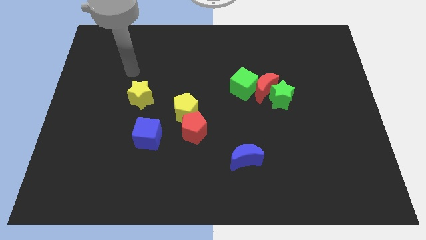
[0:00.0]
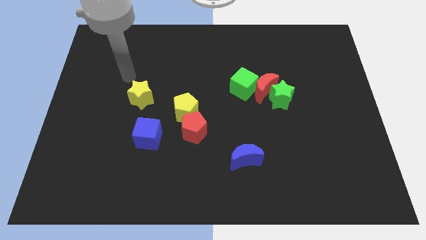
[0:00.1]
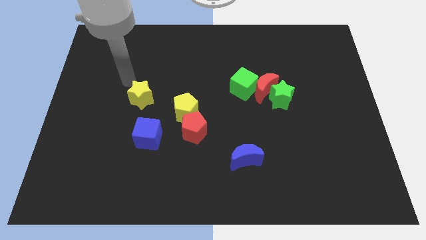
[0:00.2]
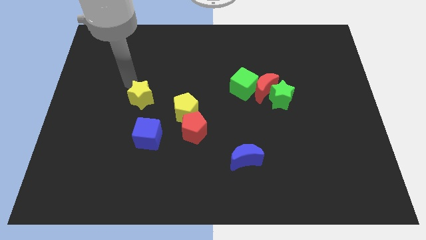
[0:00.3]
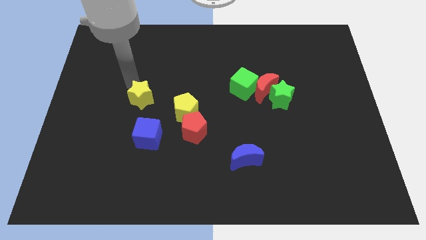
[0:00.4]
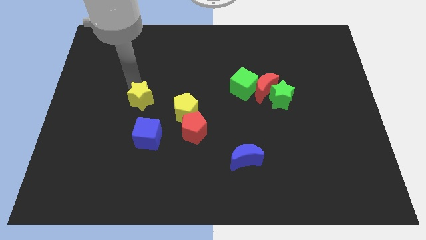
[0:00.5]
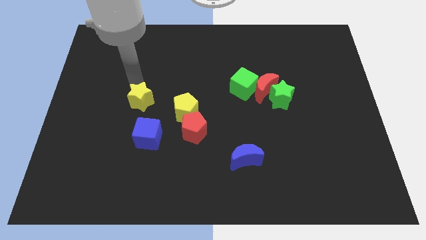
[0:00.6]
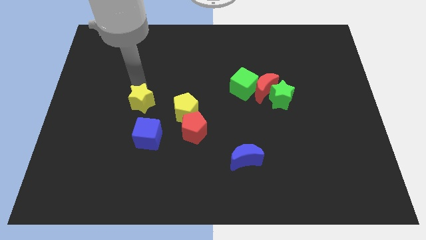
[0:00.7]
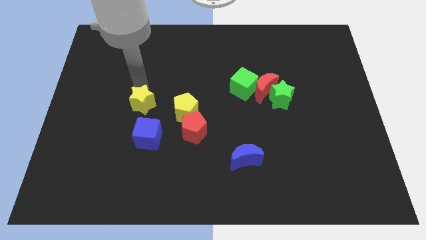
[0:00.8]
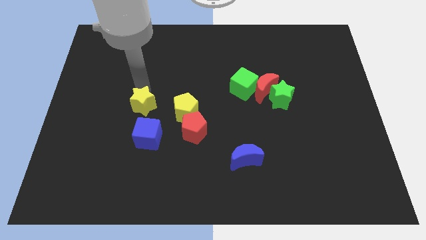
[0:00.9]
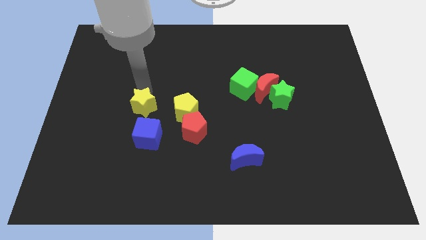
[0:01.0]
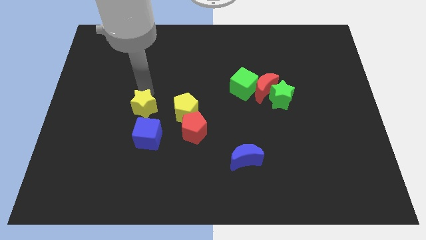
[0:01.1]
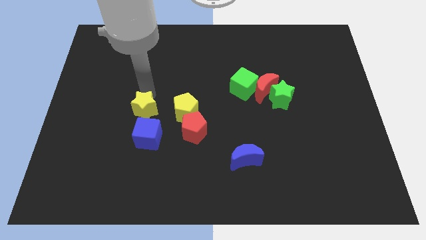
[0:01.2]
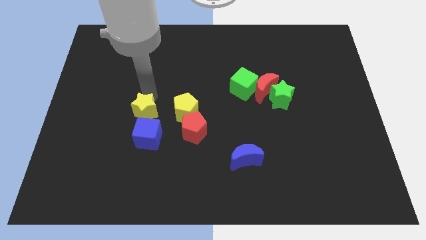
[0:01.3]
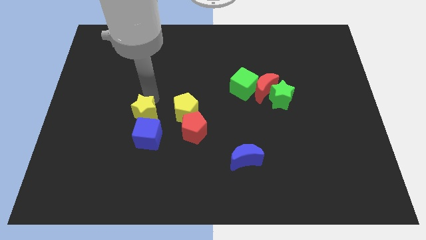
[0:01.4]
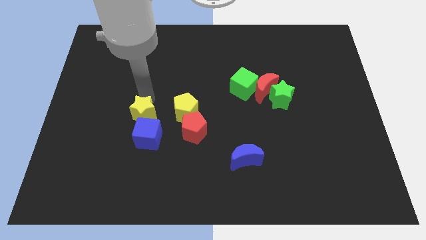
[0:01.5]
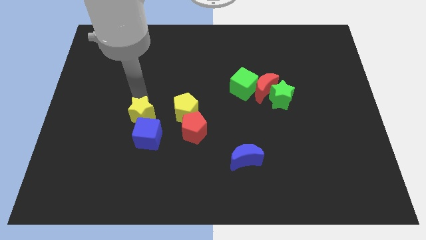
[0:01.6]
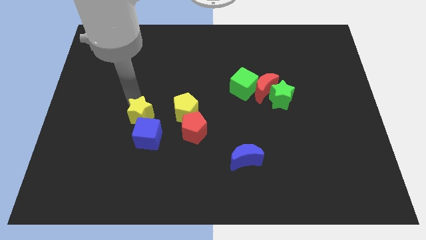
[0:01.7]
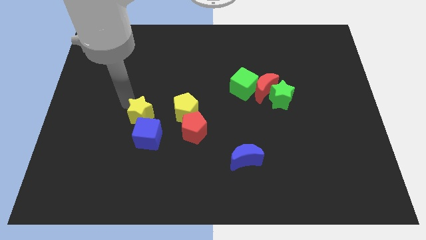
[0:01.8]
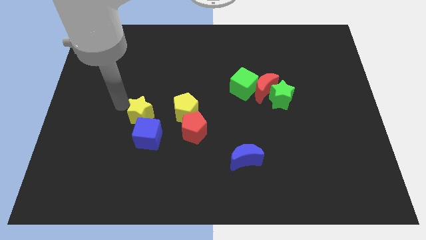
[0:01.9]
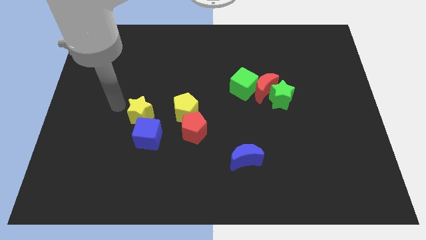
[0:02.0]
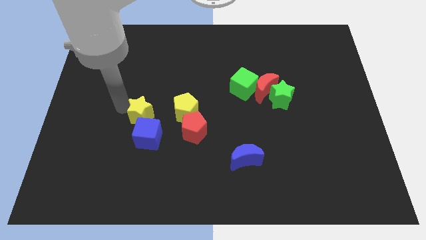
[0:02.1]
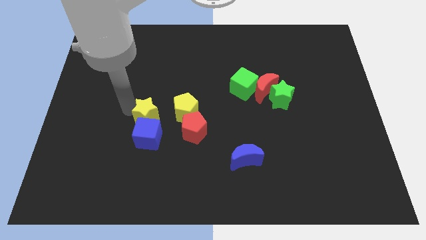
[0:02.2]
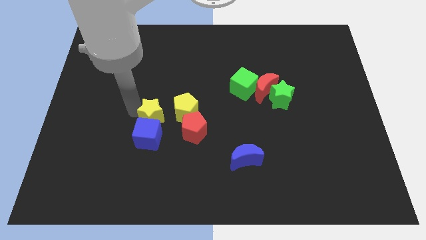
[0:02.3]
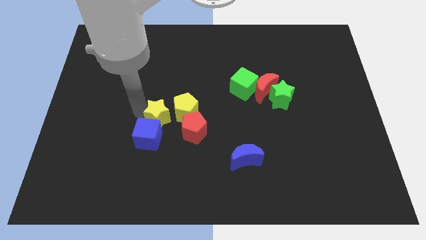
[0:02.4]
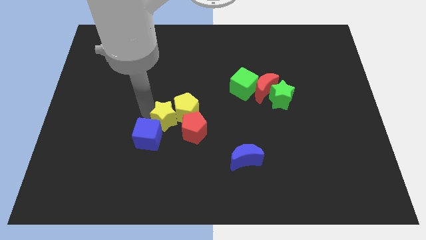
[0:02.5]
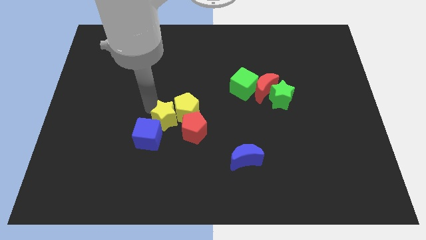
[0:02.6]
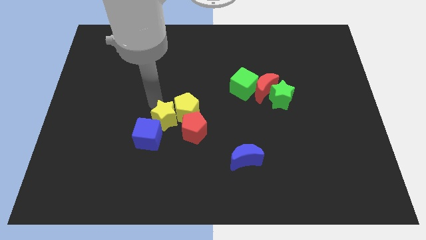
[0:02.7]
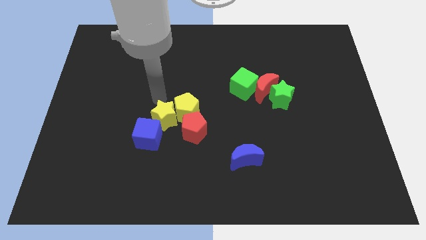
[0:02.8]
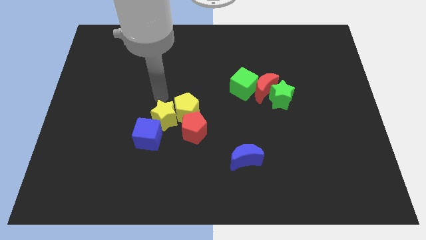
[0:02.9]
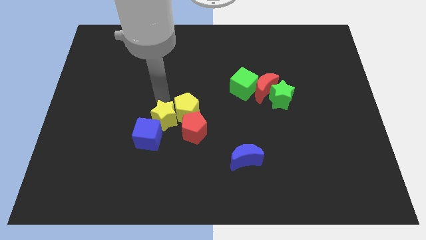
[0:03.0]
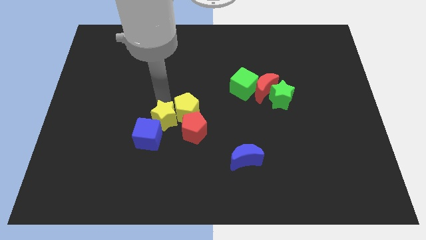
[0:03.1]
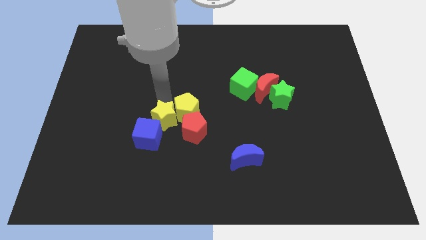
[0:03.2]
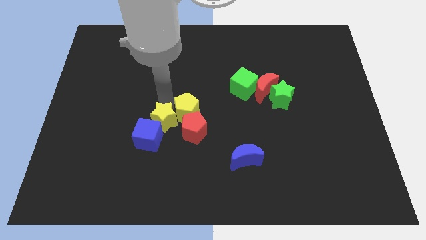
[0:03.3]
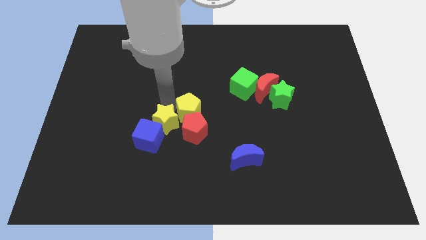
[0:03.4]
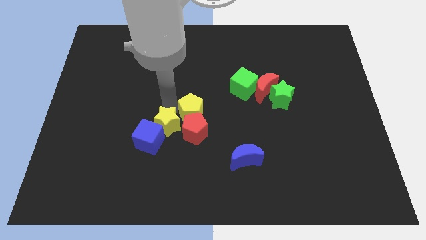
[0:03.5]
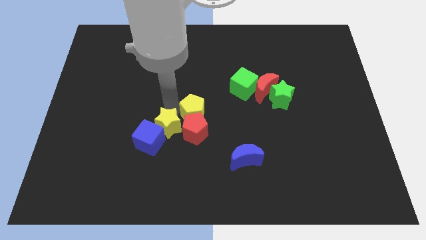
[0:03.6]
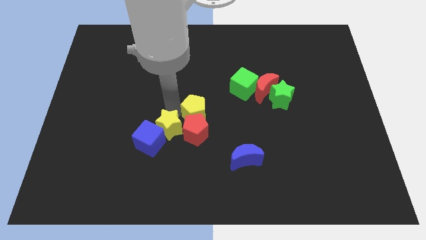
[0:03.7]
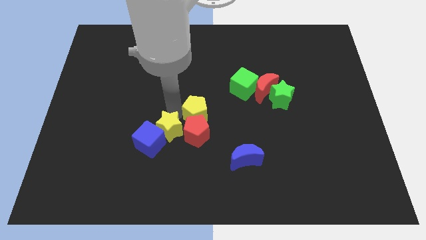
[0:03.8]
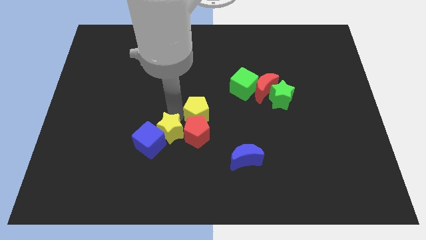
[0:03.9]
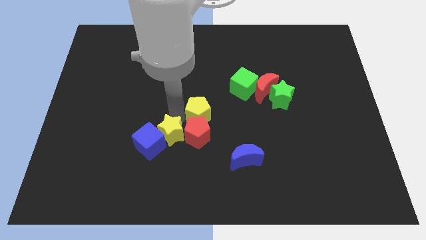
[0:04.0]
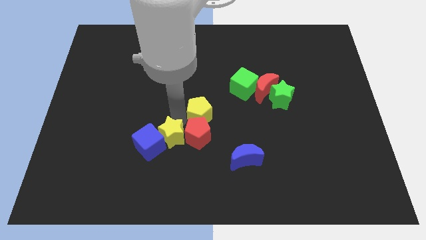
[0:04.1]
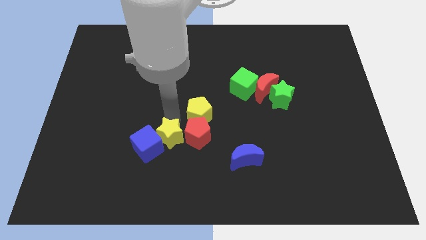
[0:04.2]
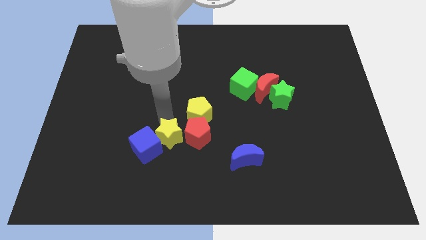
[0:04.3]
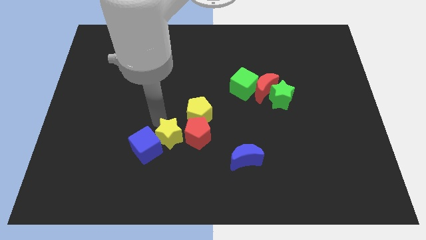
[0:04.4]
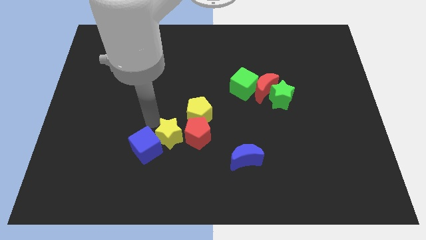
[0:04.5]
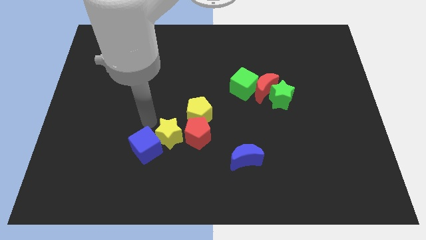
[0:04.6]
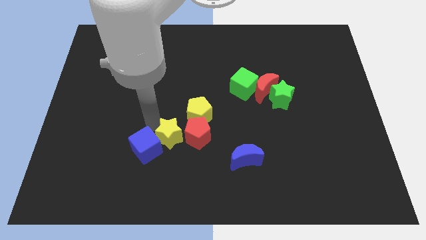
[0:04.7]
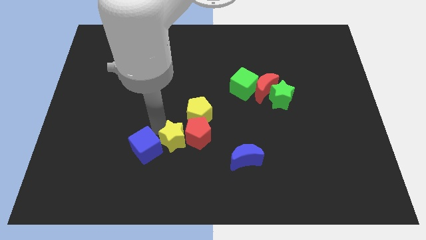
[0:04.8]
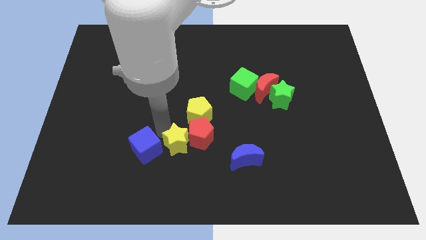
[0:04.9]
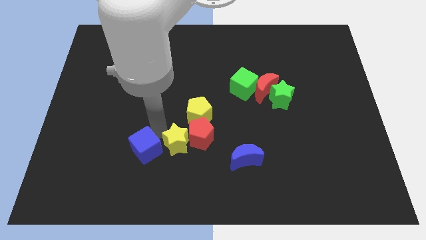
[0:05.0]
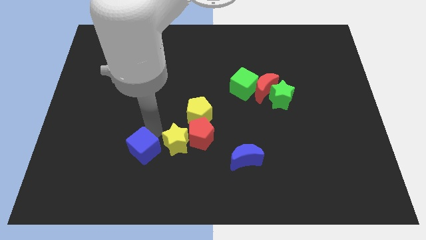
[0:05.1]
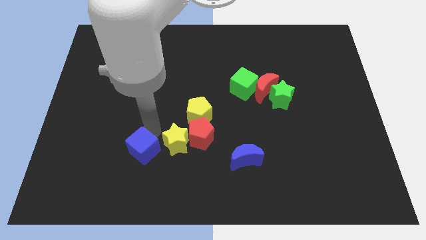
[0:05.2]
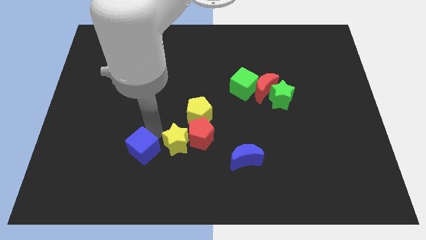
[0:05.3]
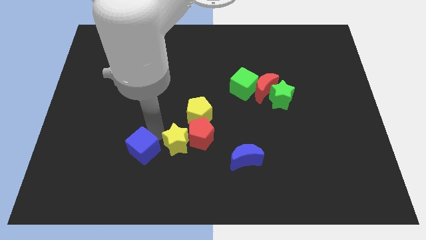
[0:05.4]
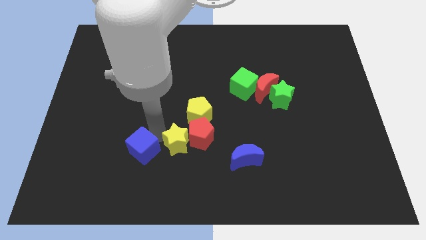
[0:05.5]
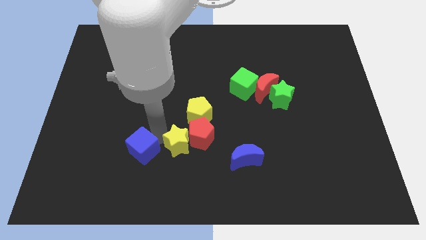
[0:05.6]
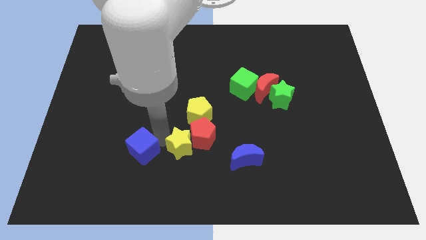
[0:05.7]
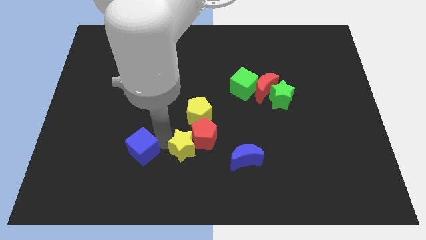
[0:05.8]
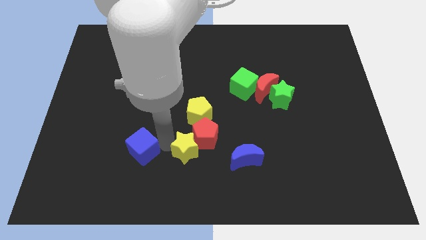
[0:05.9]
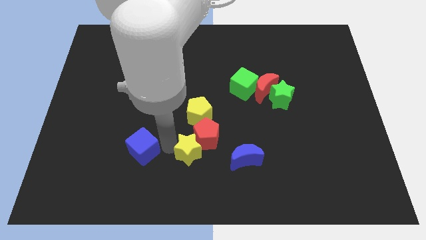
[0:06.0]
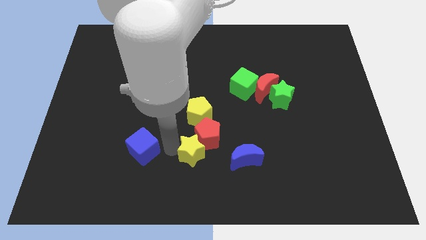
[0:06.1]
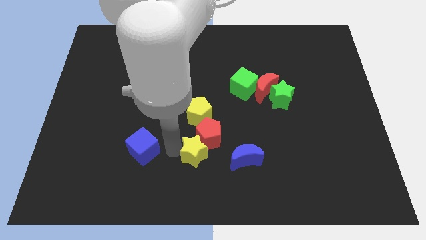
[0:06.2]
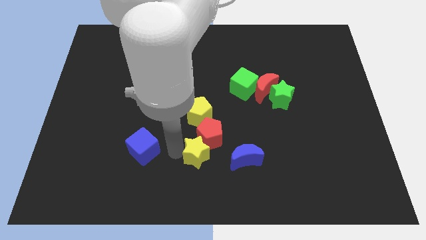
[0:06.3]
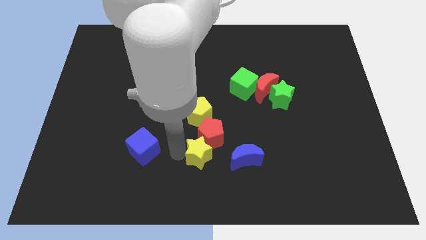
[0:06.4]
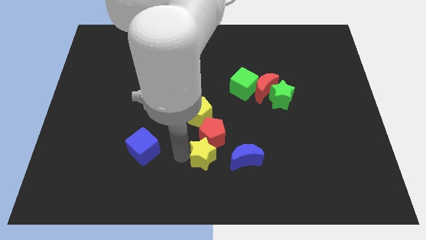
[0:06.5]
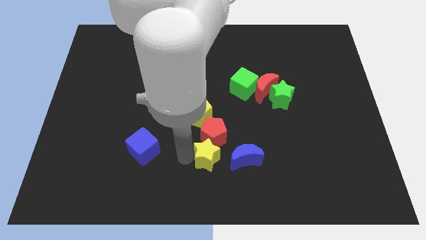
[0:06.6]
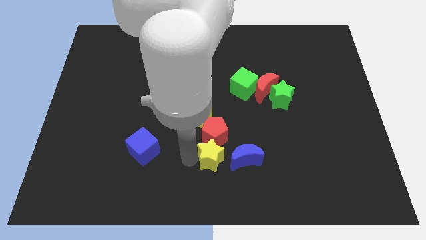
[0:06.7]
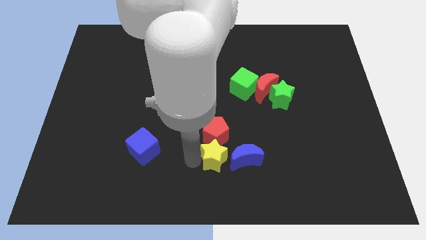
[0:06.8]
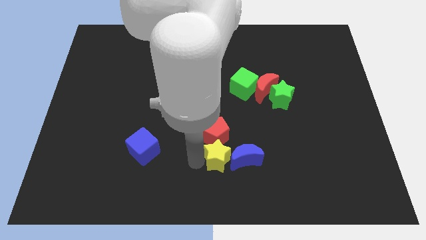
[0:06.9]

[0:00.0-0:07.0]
slide the yellow star to the blue moon
